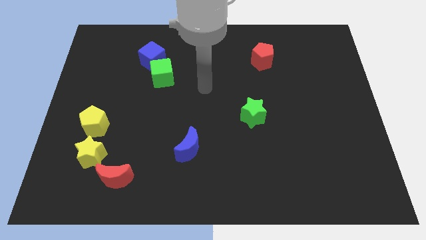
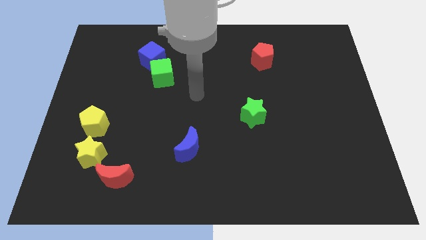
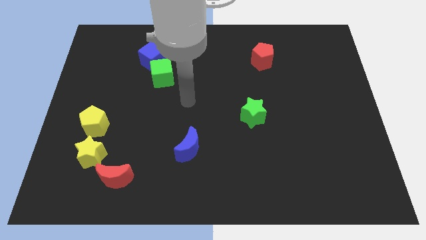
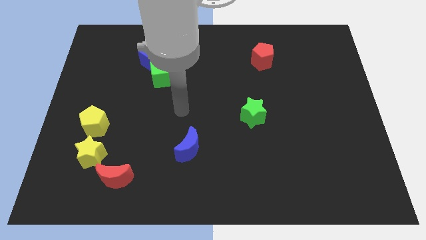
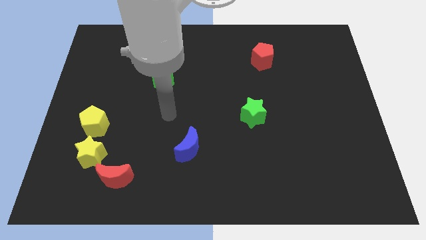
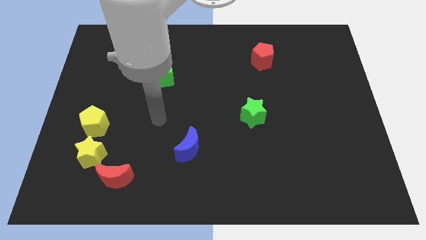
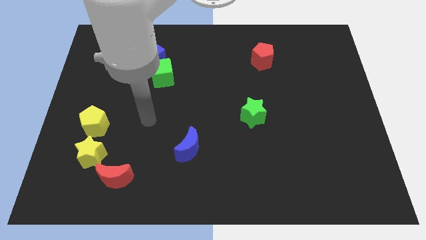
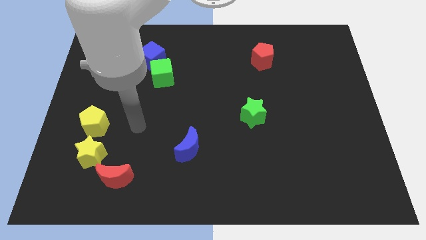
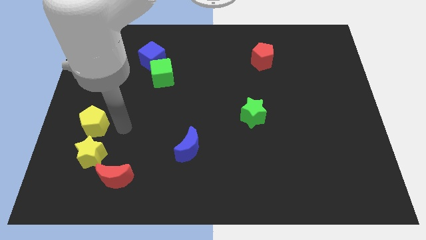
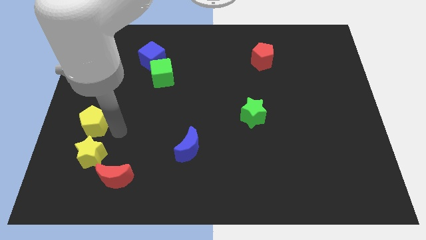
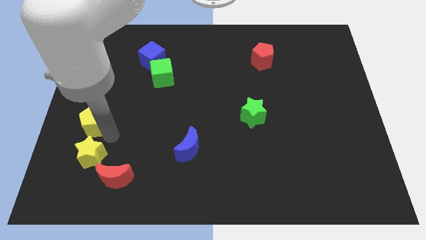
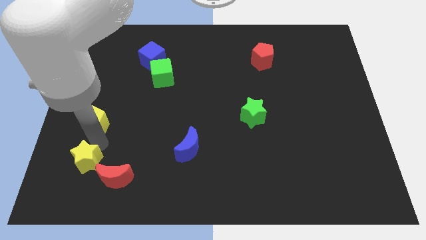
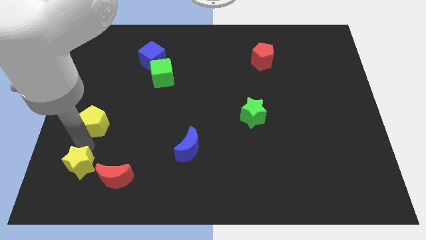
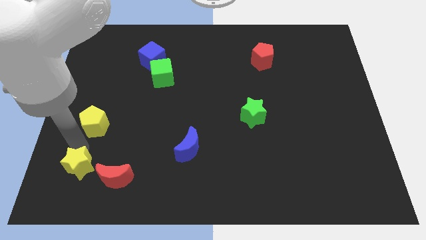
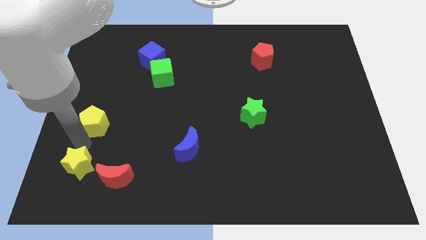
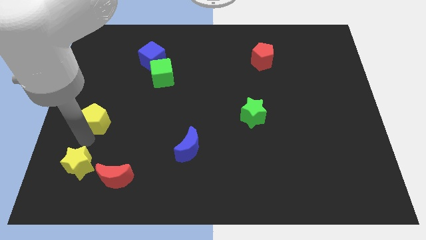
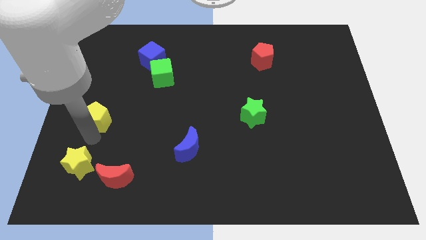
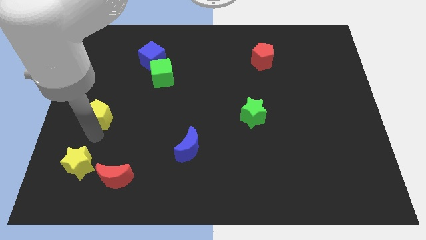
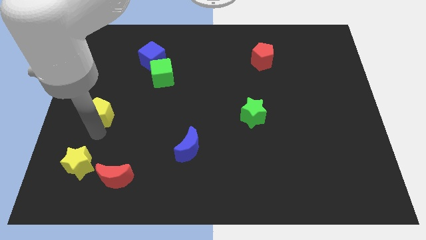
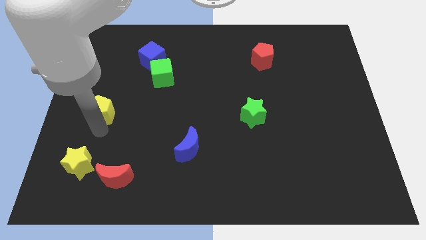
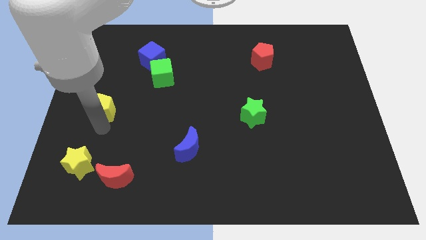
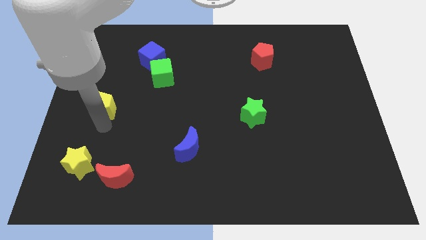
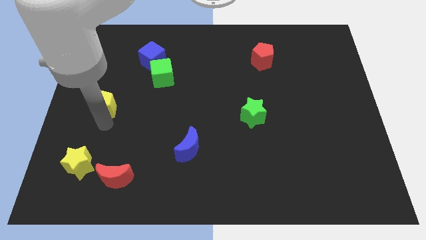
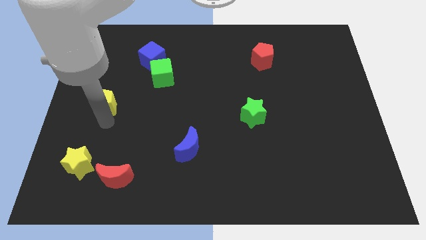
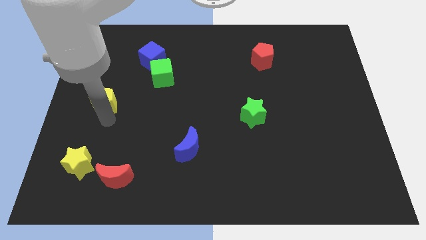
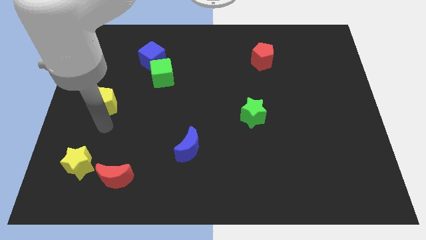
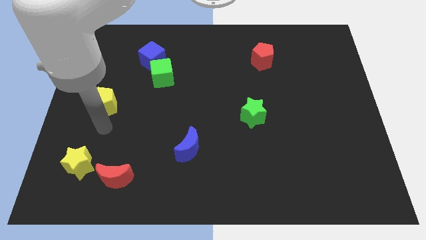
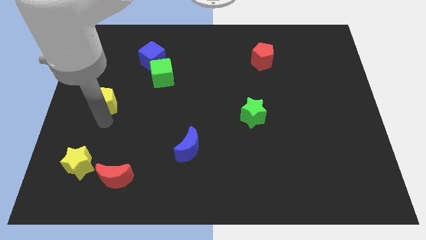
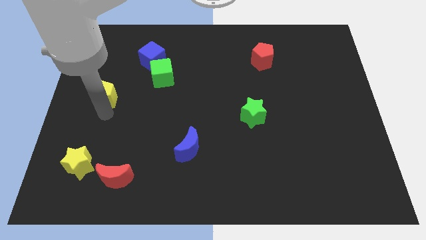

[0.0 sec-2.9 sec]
slightly move the yellow pentagon up

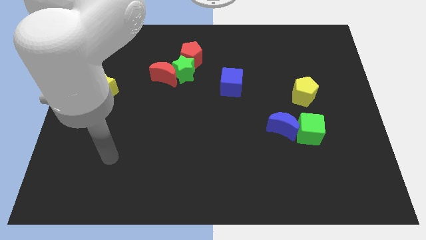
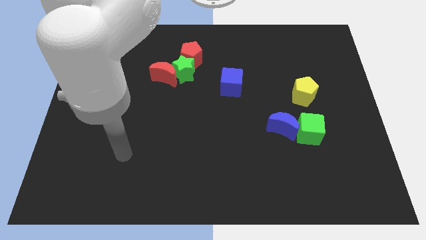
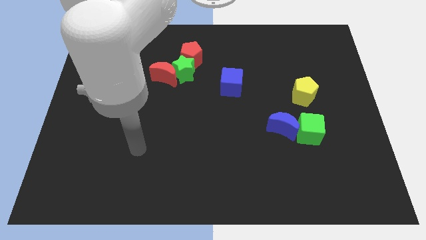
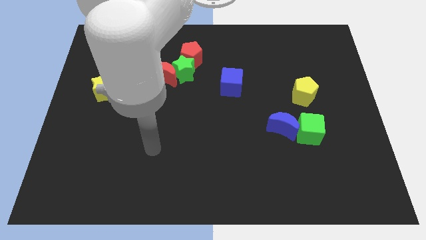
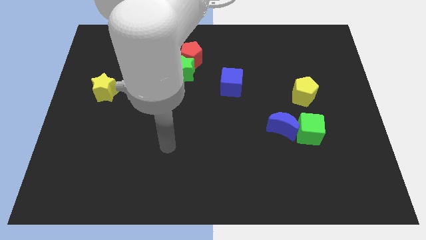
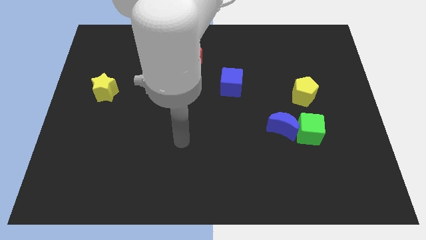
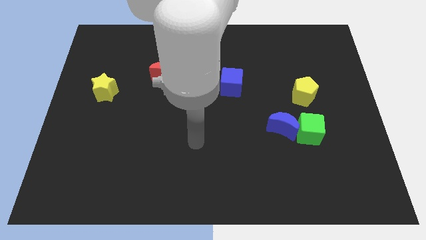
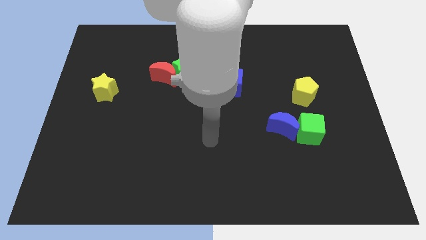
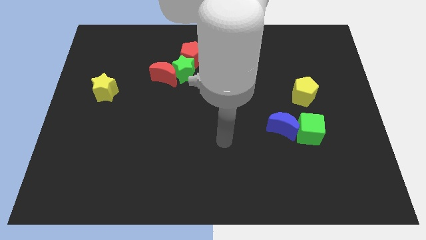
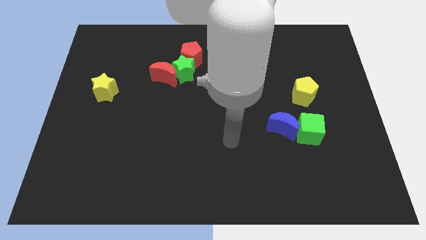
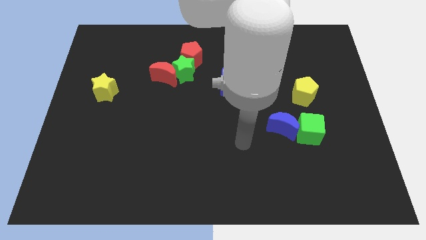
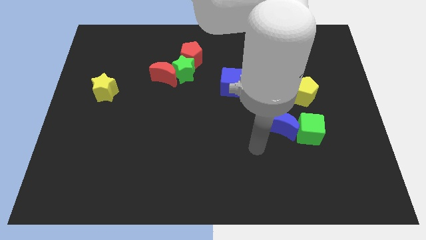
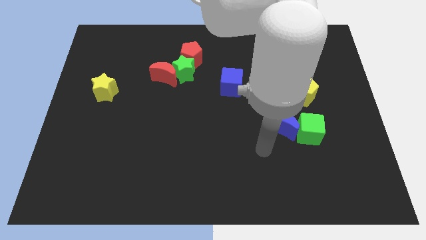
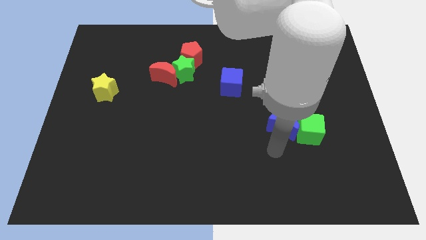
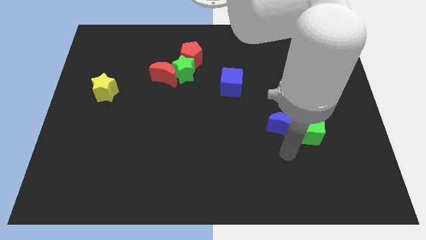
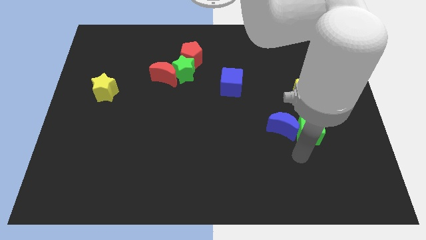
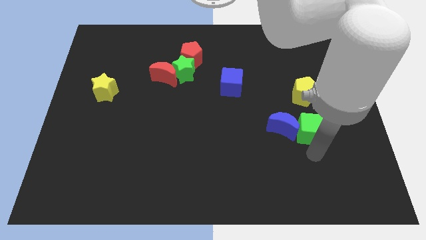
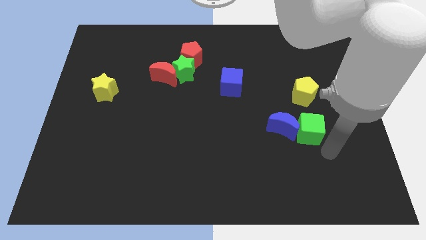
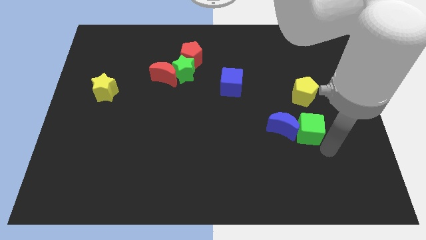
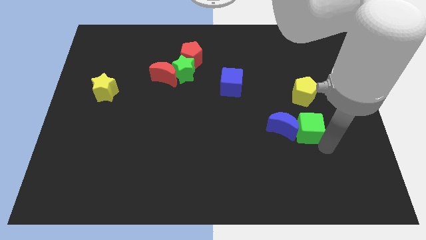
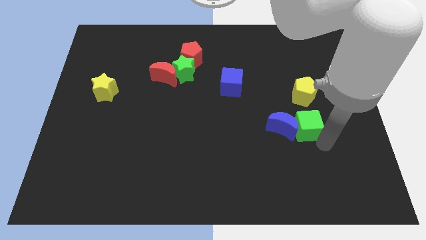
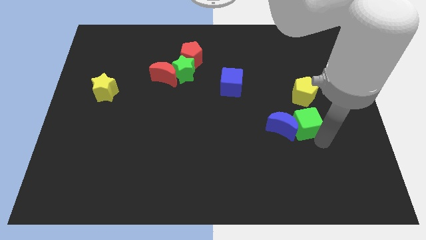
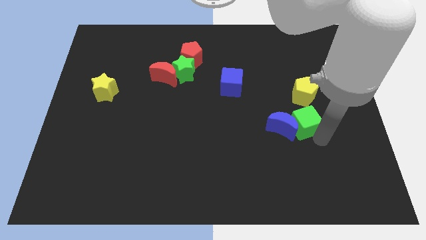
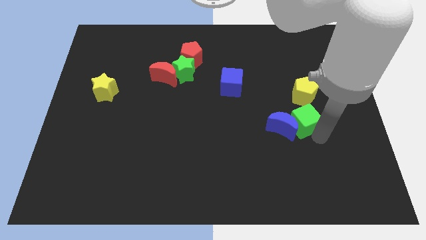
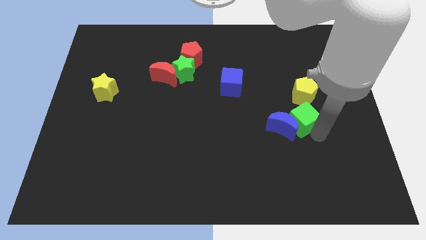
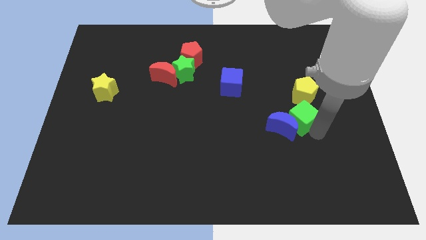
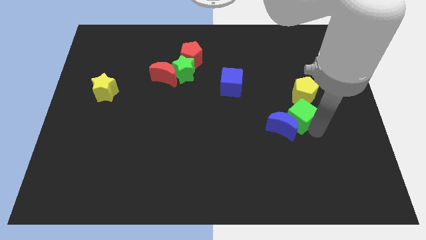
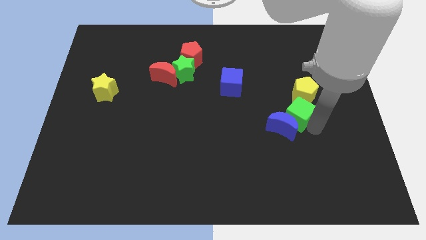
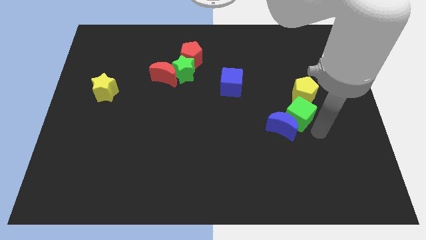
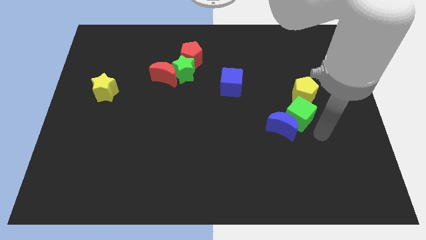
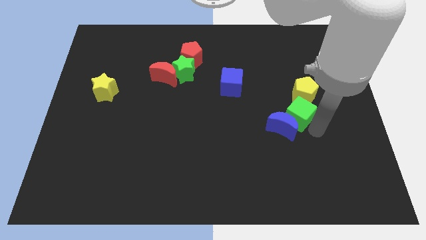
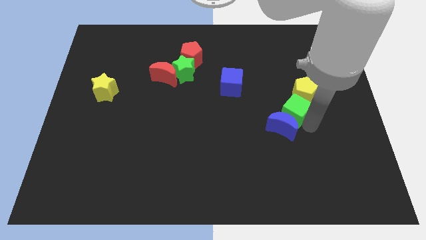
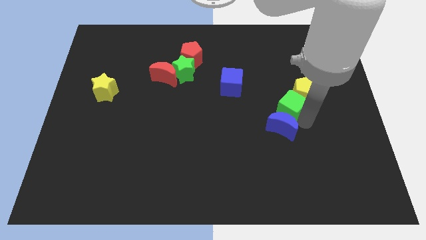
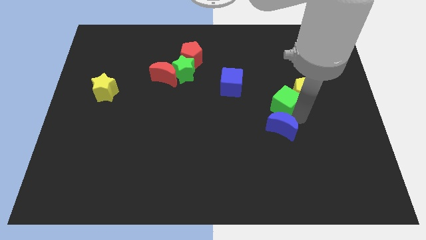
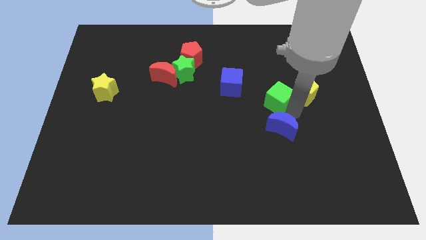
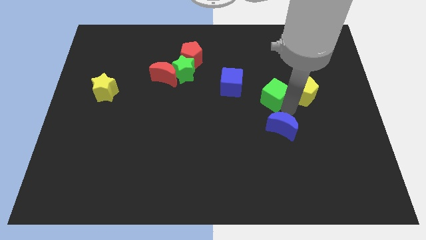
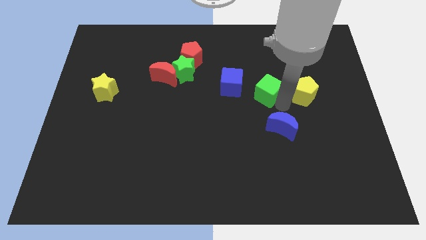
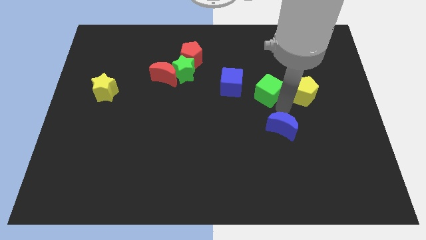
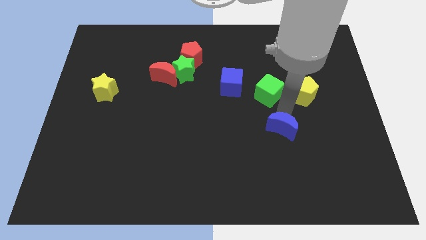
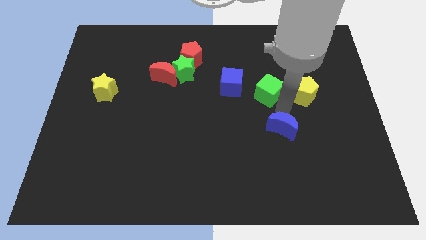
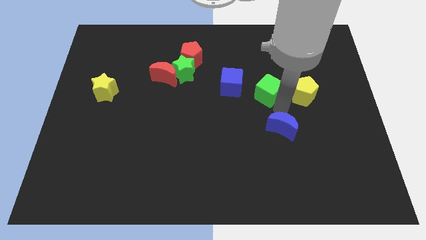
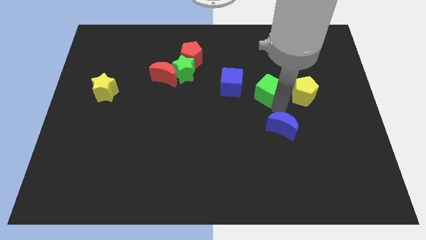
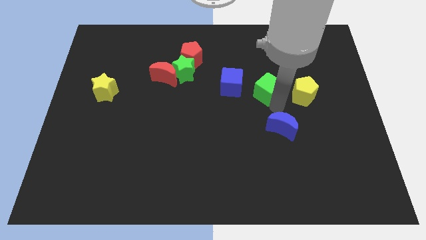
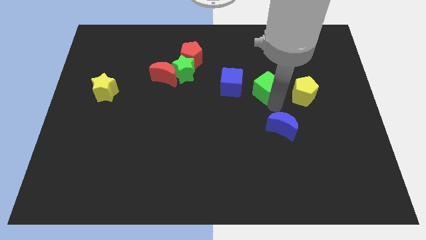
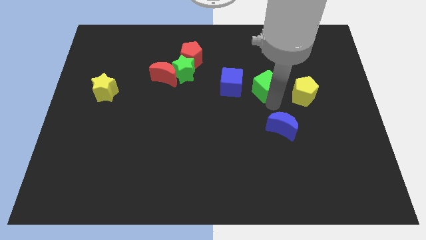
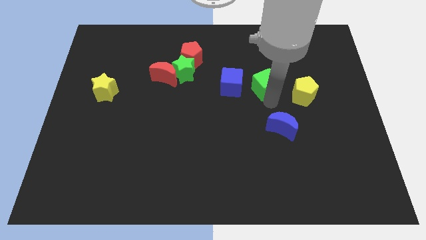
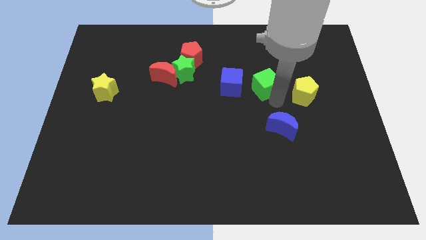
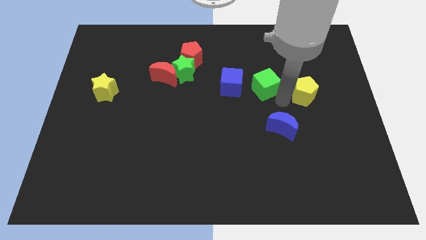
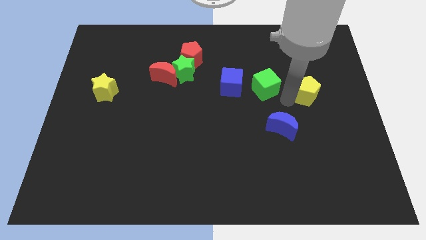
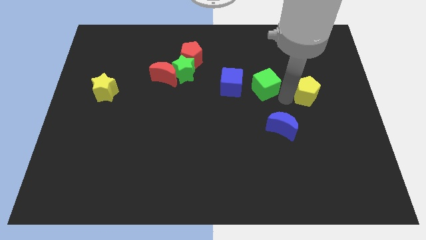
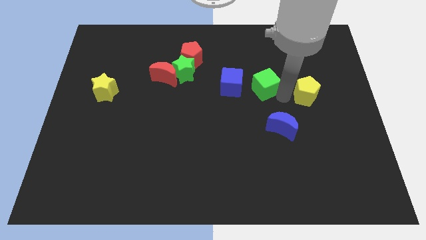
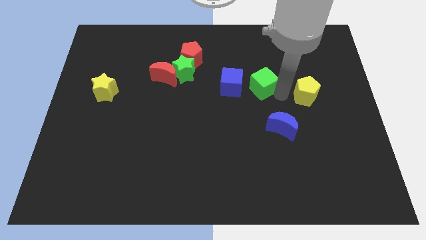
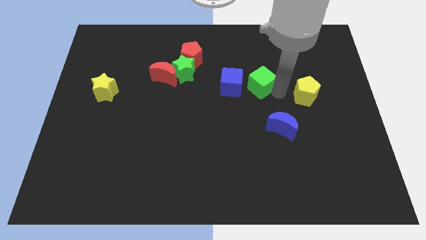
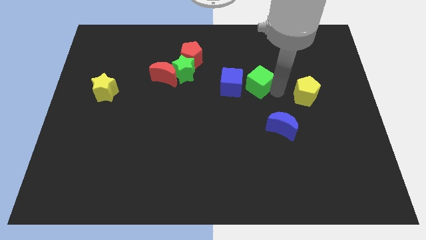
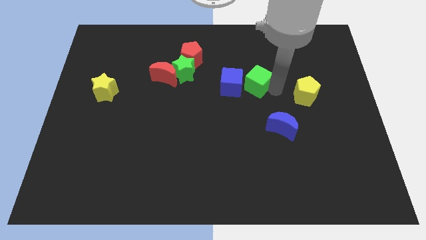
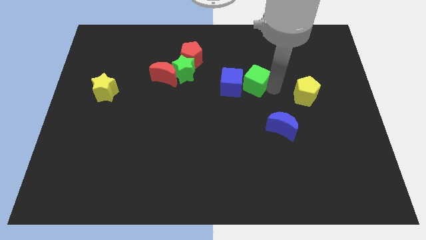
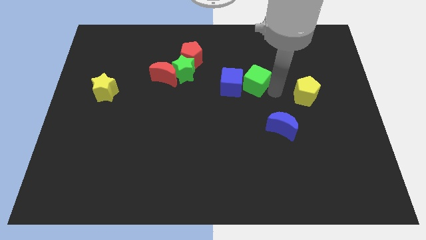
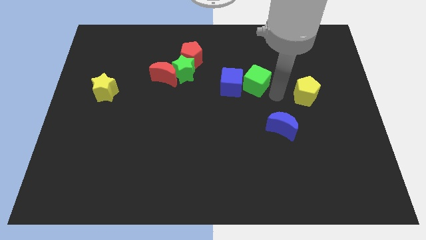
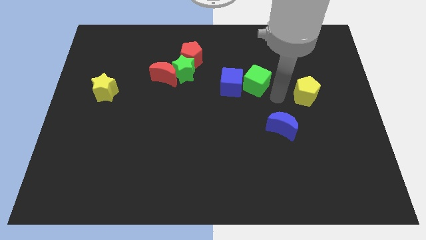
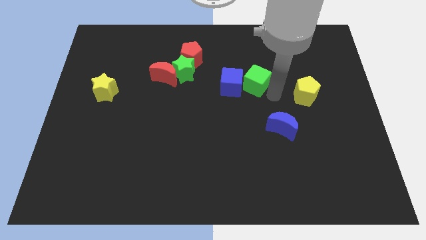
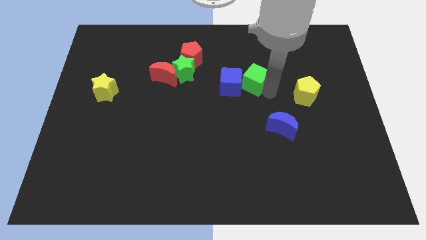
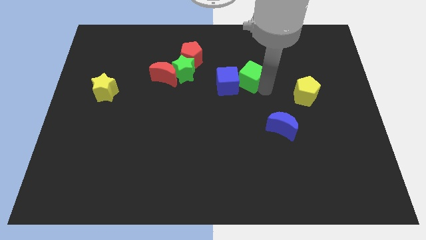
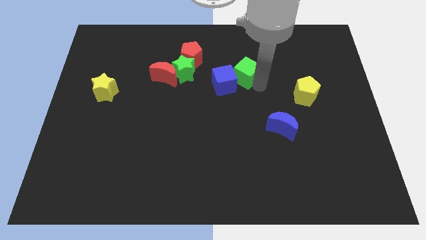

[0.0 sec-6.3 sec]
slide the green cube upwards and then to the left
